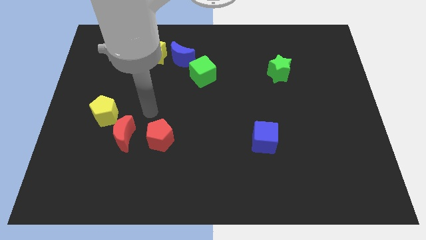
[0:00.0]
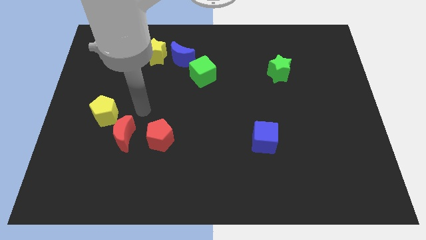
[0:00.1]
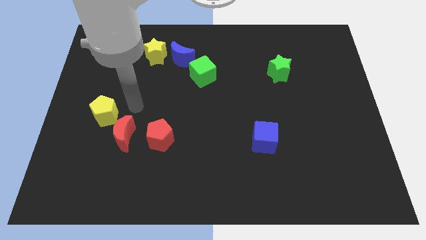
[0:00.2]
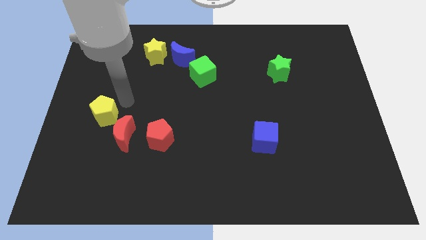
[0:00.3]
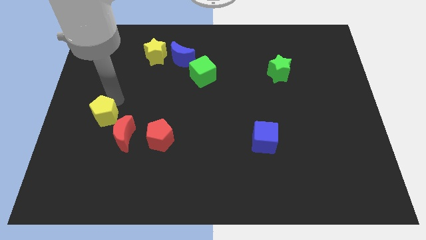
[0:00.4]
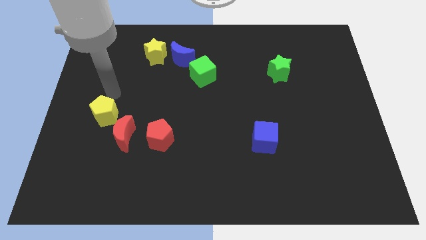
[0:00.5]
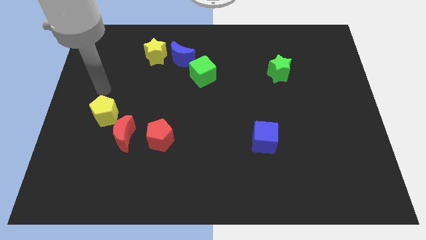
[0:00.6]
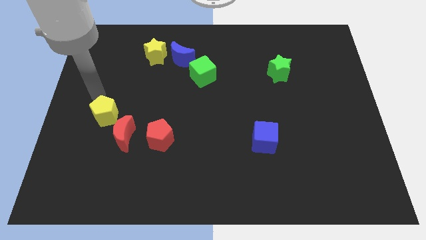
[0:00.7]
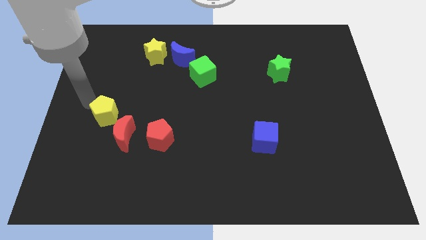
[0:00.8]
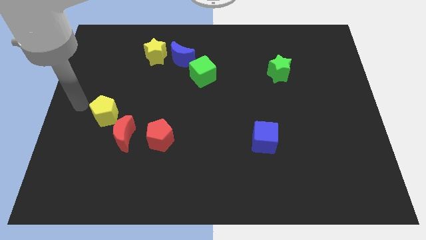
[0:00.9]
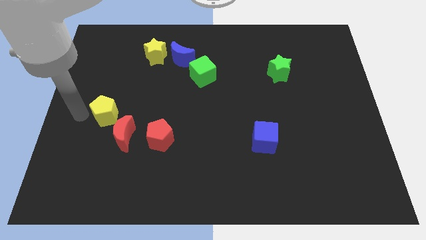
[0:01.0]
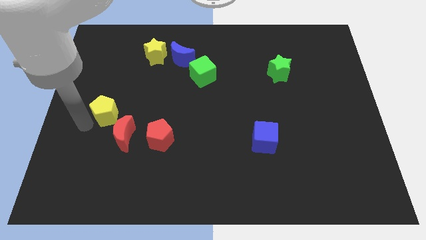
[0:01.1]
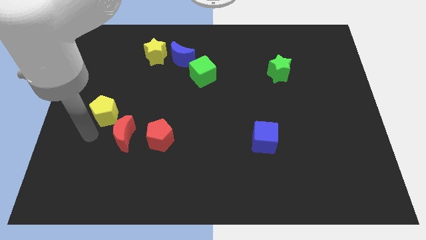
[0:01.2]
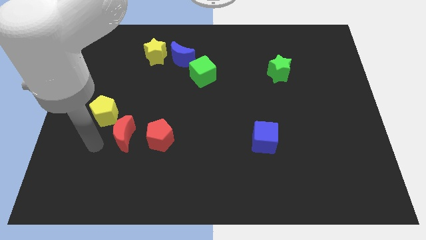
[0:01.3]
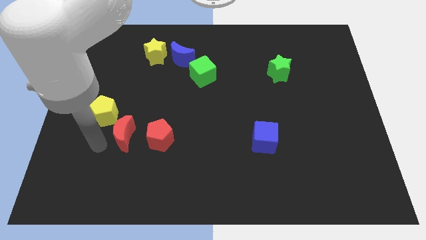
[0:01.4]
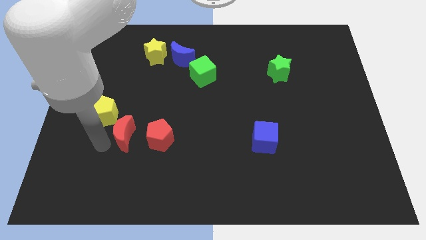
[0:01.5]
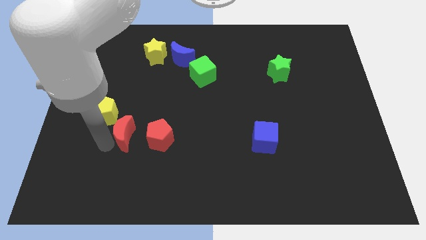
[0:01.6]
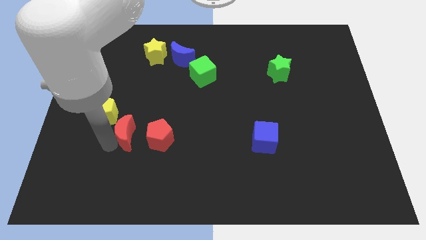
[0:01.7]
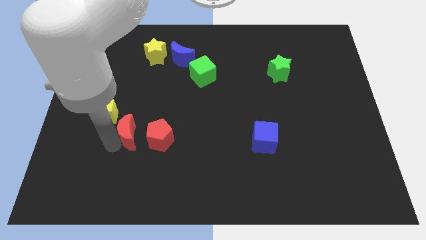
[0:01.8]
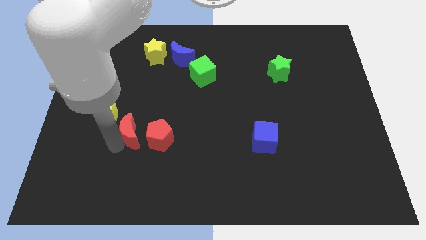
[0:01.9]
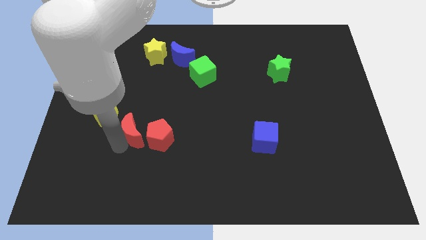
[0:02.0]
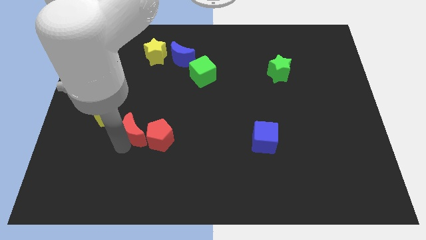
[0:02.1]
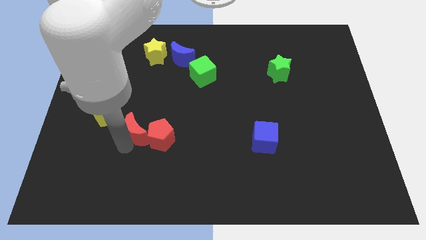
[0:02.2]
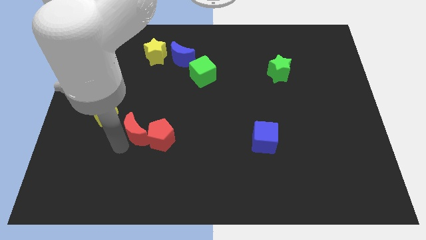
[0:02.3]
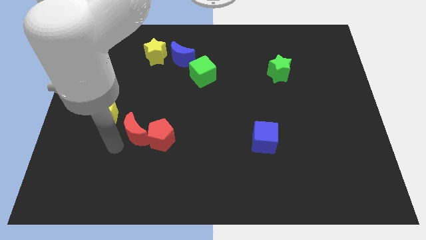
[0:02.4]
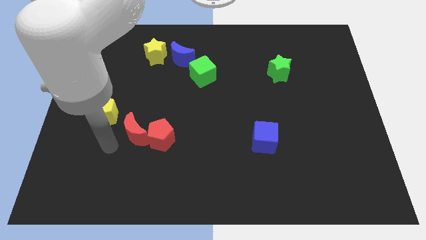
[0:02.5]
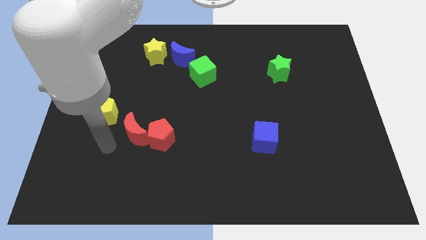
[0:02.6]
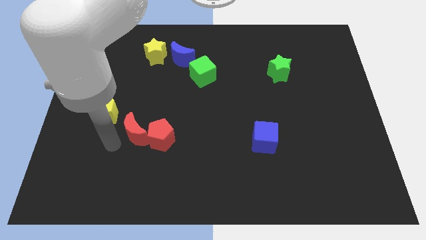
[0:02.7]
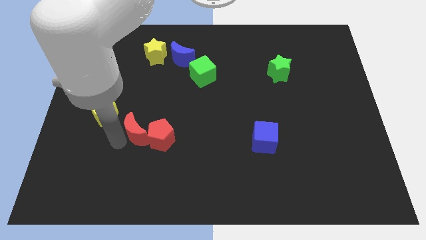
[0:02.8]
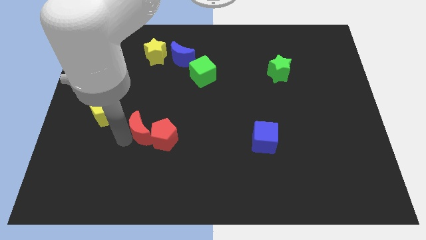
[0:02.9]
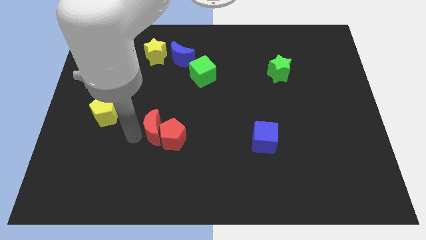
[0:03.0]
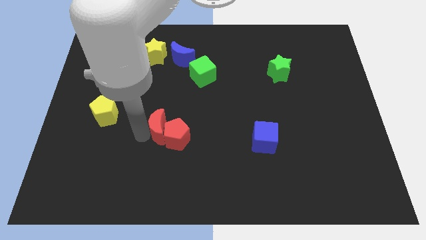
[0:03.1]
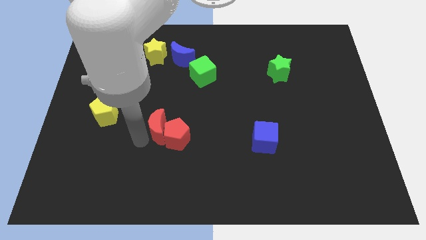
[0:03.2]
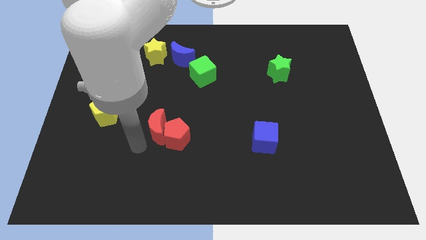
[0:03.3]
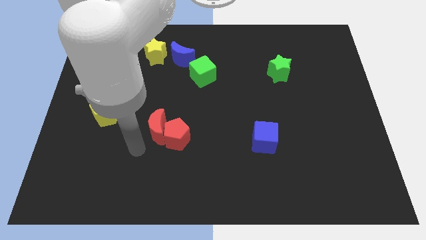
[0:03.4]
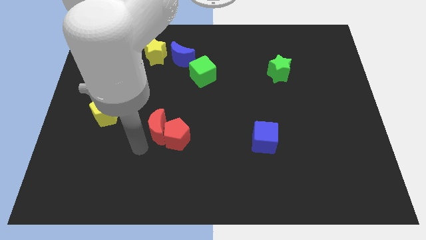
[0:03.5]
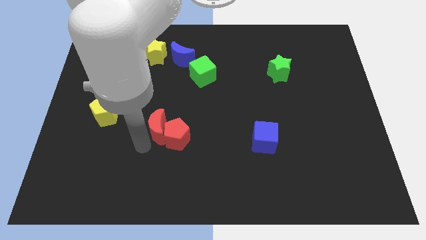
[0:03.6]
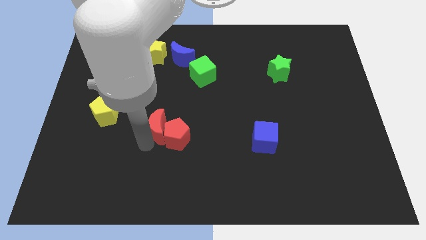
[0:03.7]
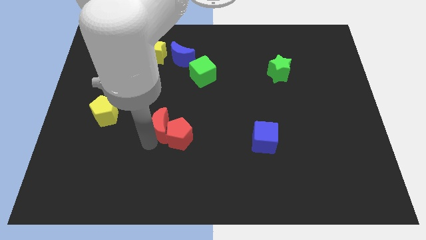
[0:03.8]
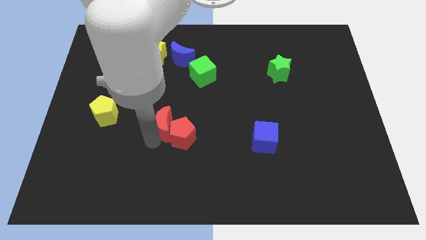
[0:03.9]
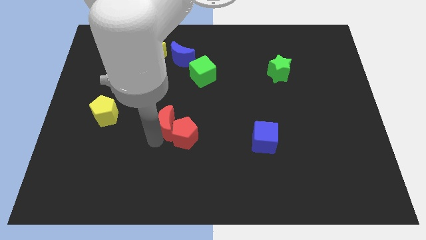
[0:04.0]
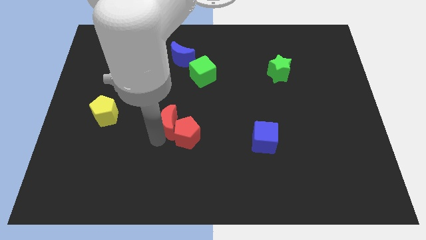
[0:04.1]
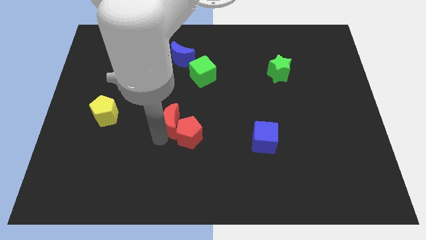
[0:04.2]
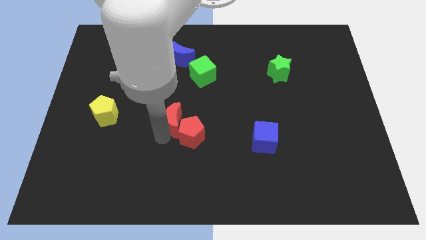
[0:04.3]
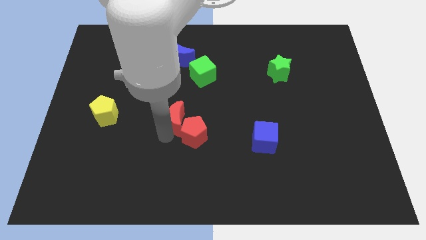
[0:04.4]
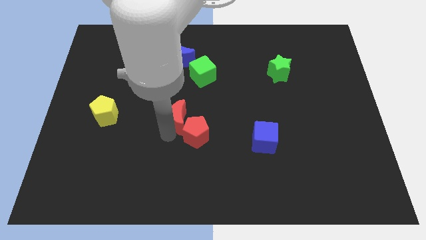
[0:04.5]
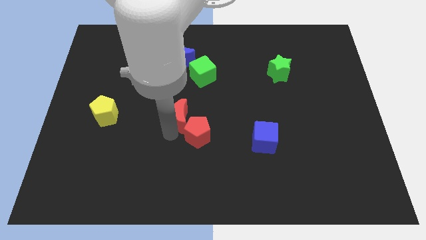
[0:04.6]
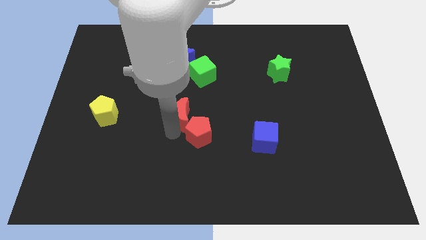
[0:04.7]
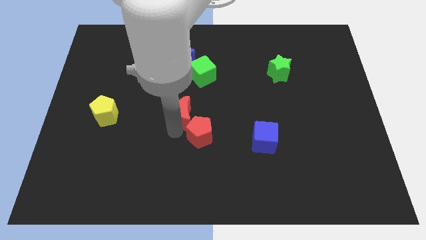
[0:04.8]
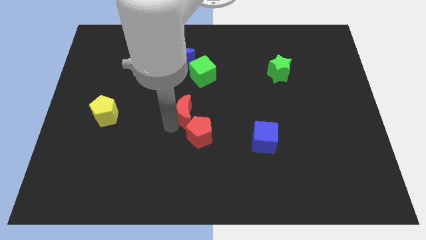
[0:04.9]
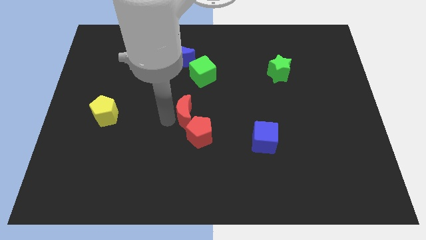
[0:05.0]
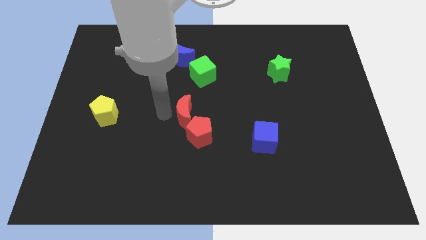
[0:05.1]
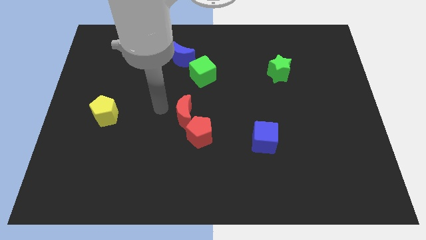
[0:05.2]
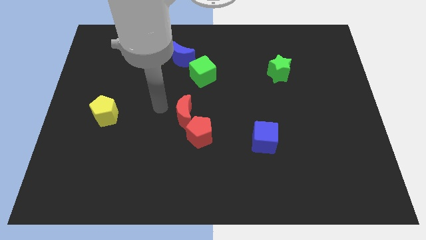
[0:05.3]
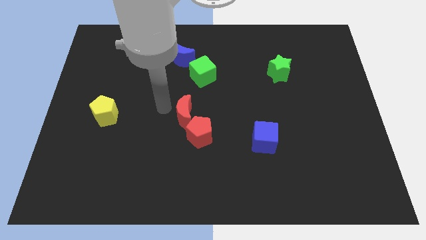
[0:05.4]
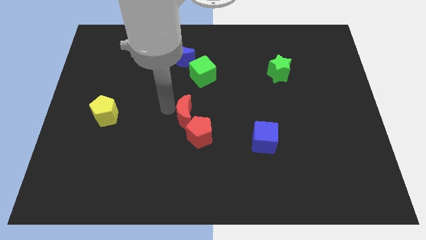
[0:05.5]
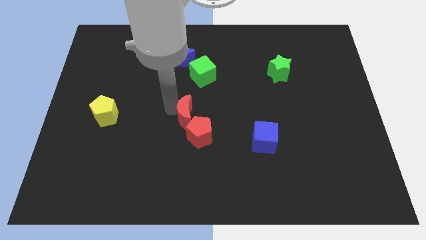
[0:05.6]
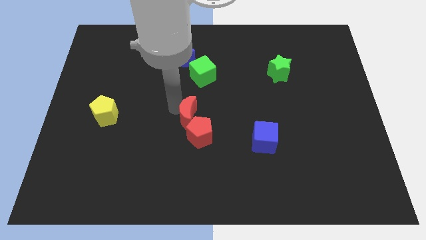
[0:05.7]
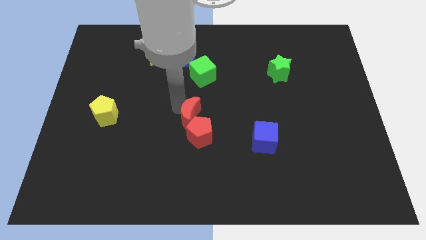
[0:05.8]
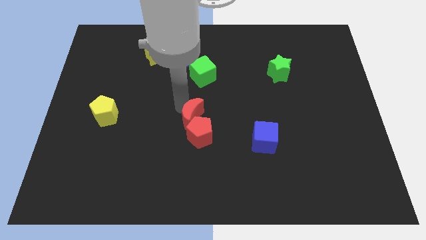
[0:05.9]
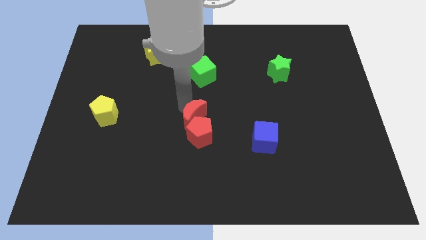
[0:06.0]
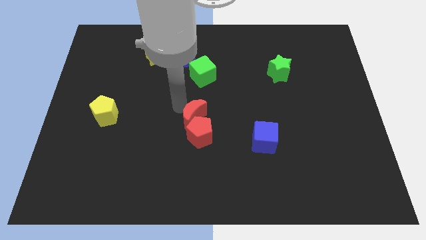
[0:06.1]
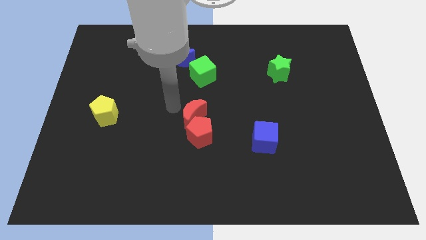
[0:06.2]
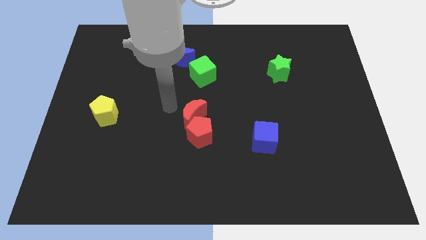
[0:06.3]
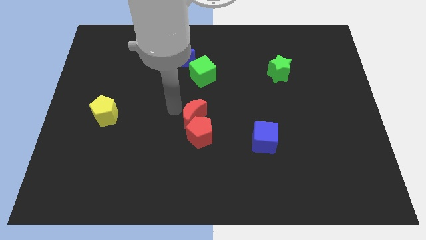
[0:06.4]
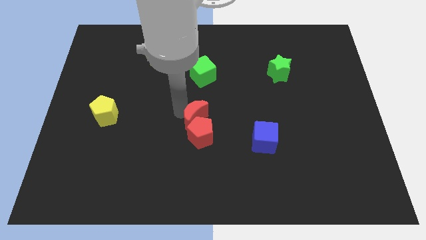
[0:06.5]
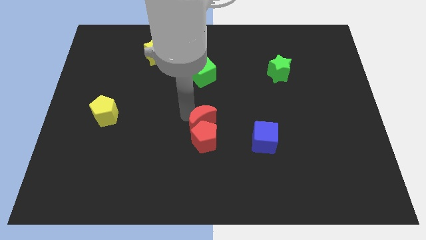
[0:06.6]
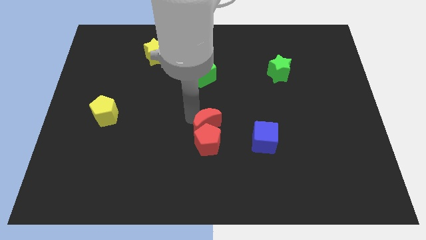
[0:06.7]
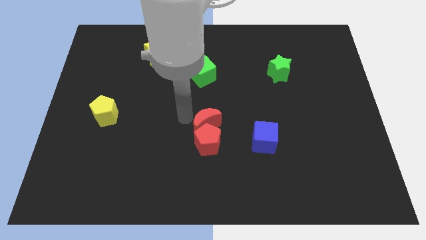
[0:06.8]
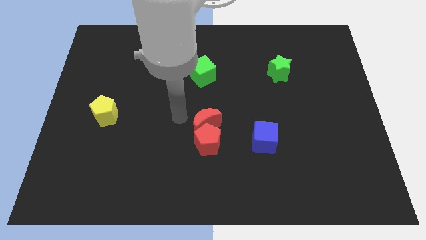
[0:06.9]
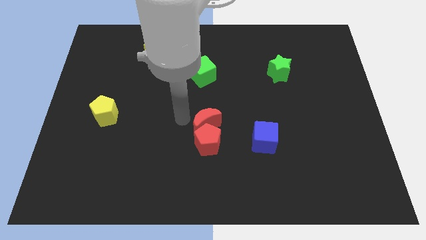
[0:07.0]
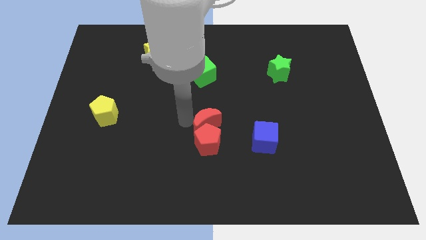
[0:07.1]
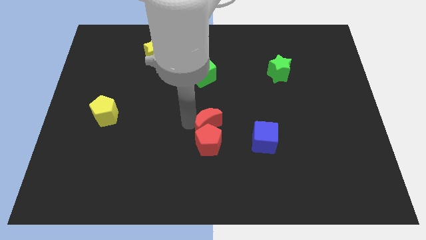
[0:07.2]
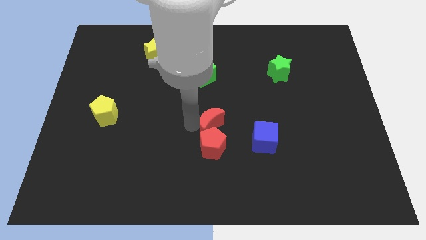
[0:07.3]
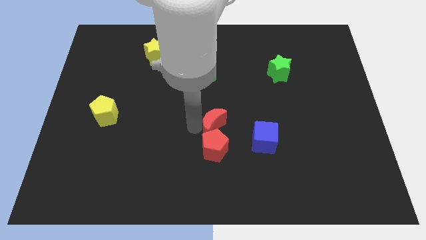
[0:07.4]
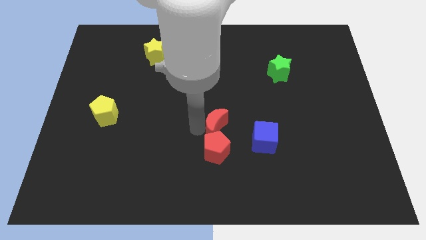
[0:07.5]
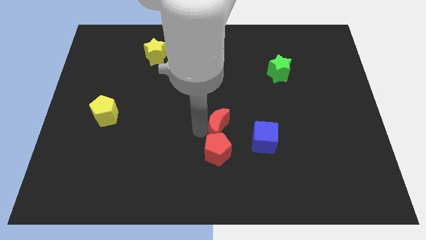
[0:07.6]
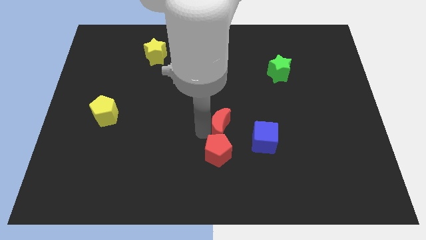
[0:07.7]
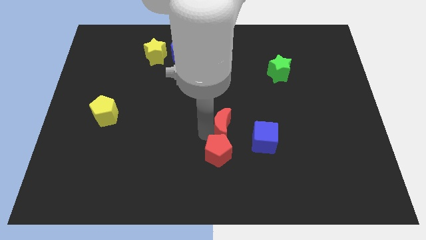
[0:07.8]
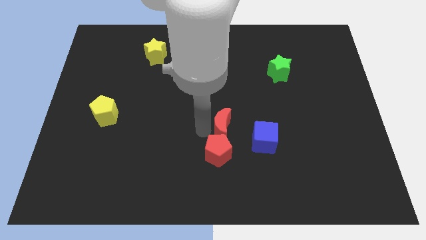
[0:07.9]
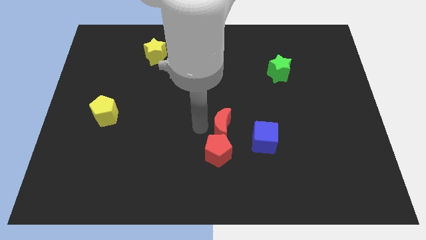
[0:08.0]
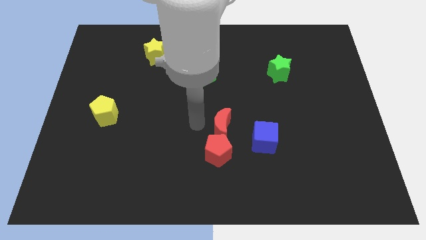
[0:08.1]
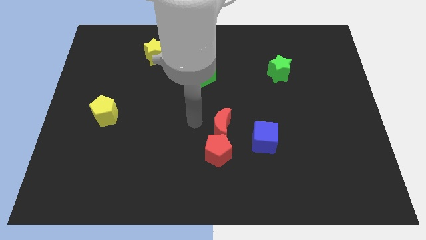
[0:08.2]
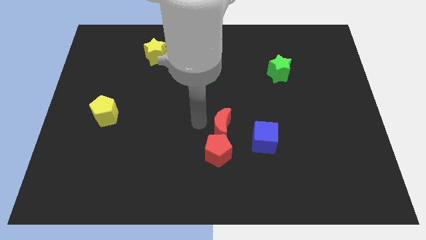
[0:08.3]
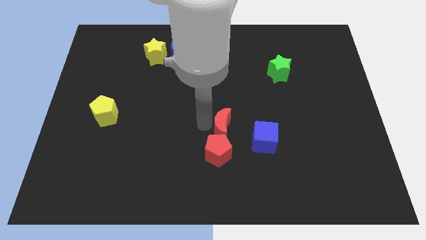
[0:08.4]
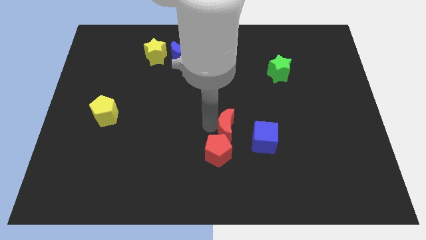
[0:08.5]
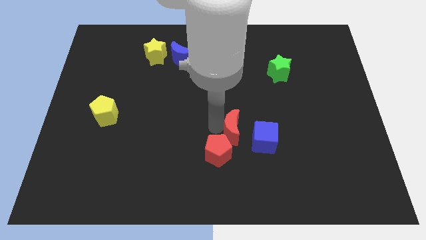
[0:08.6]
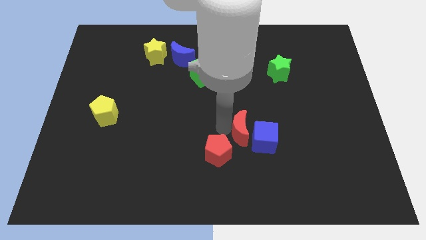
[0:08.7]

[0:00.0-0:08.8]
put the red moon towards the blue cube
